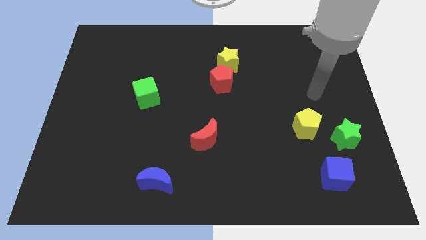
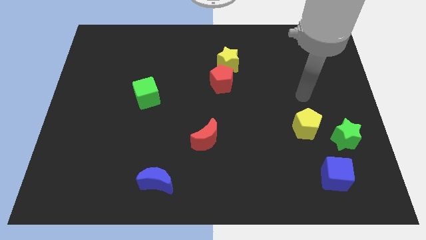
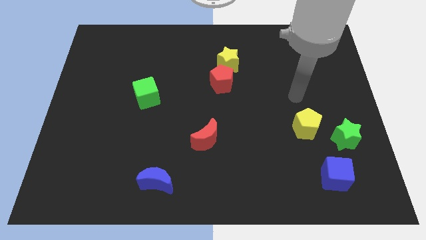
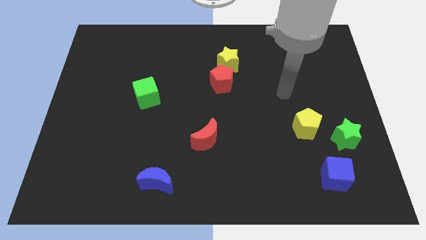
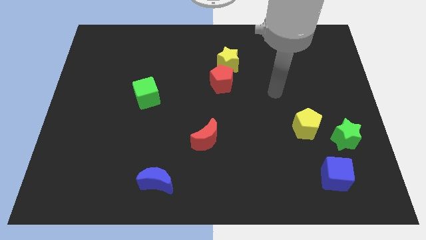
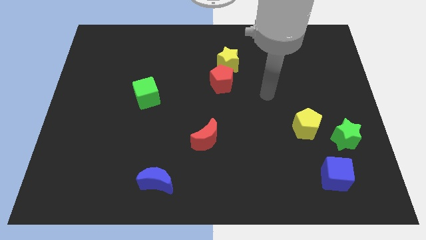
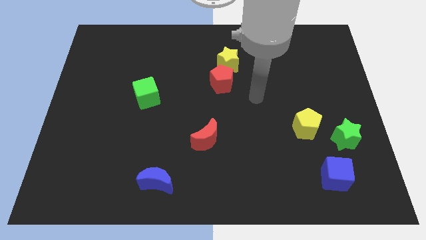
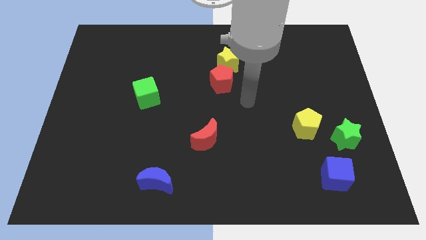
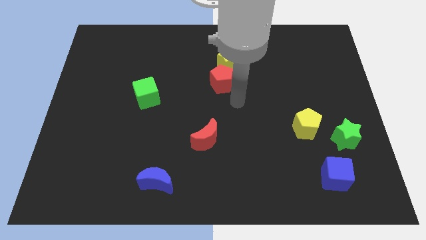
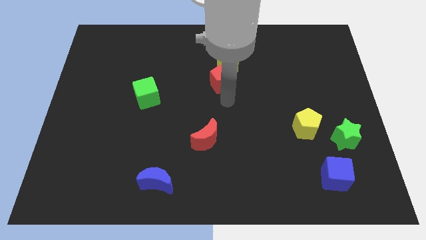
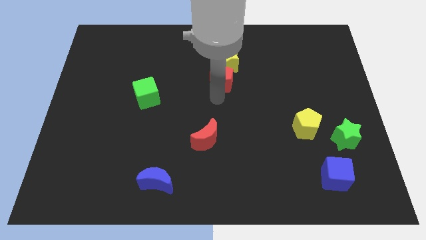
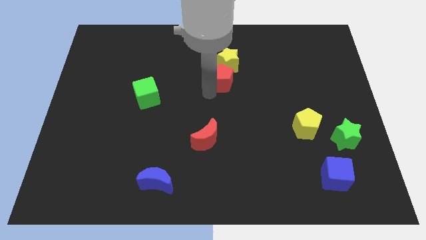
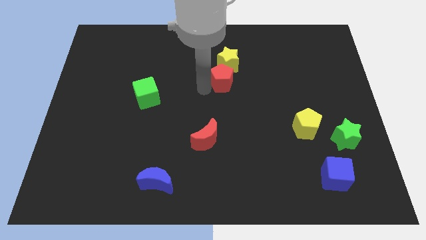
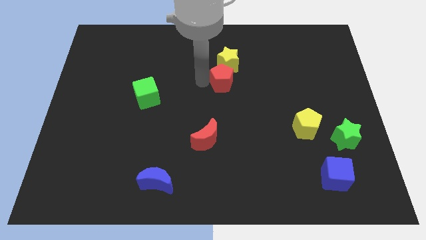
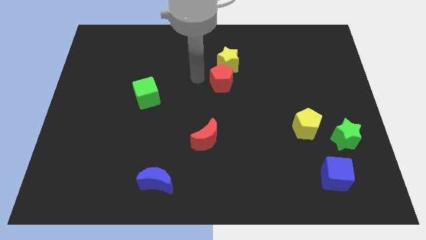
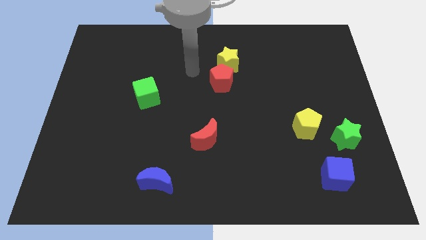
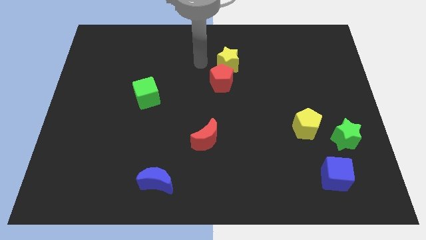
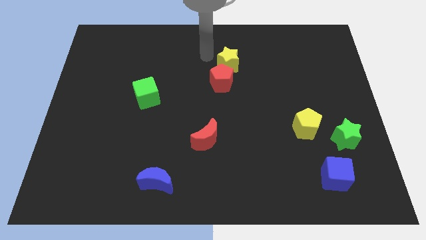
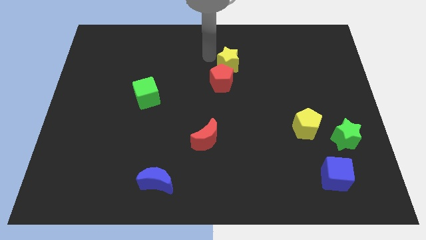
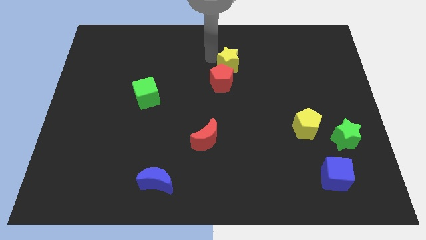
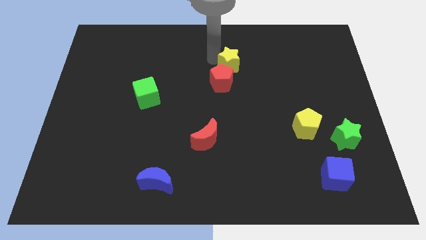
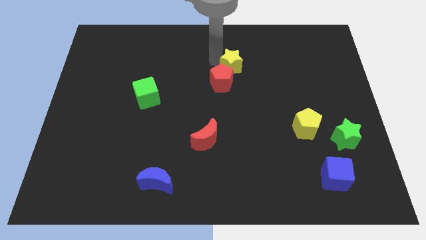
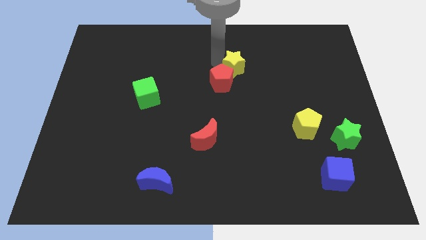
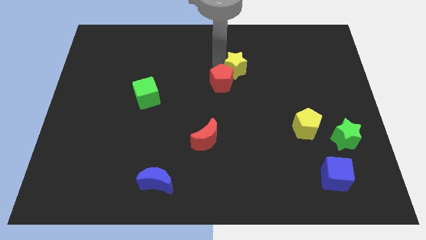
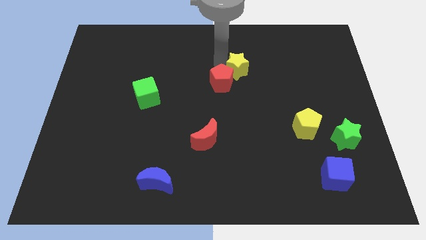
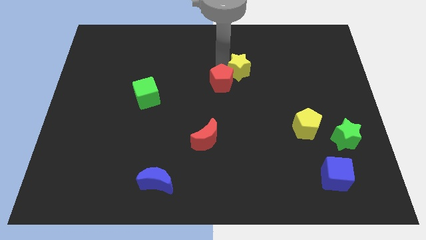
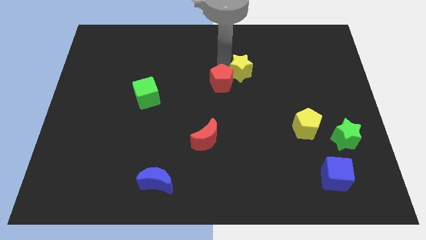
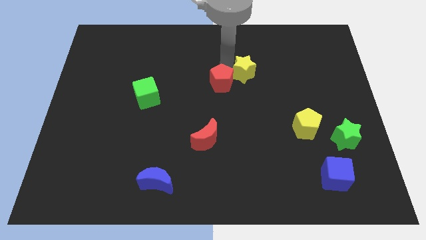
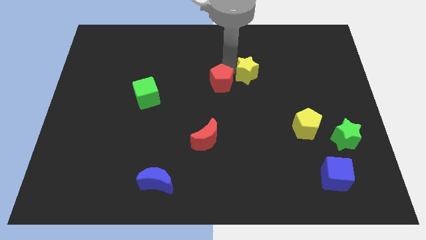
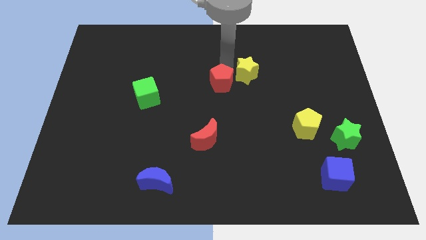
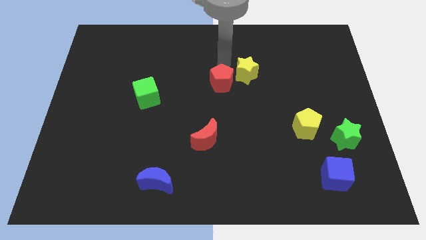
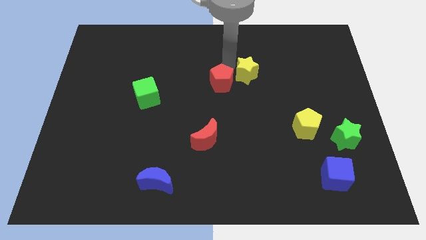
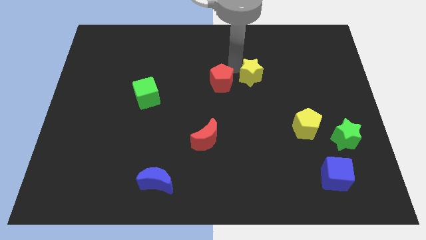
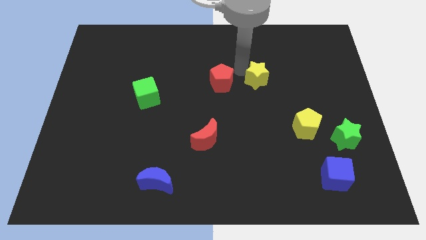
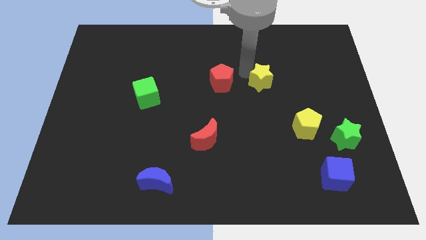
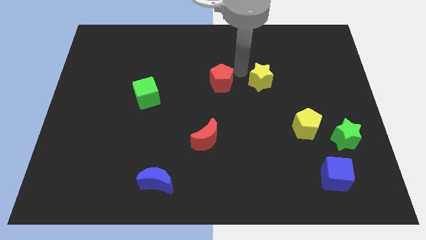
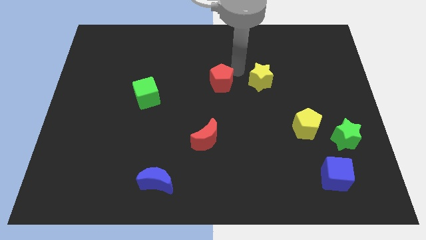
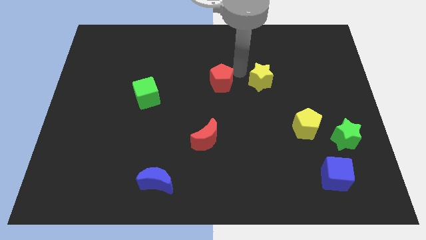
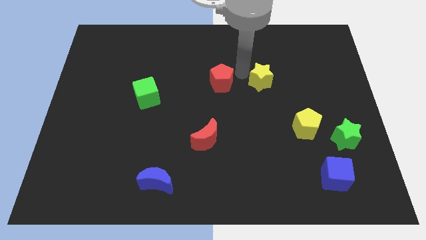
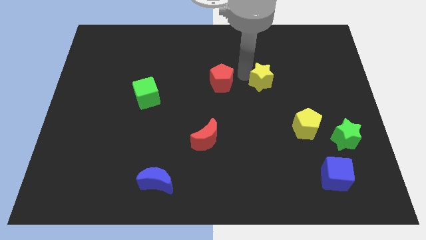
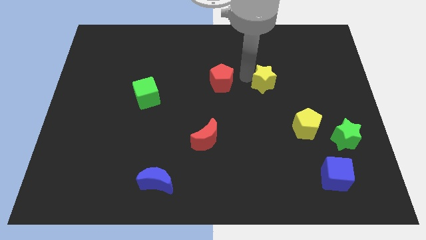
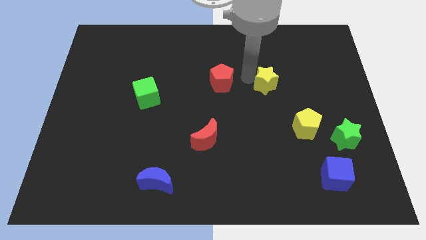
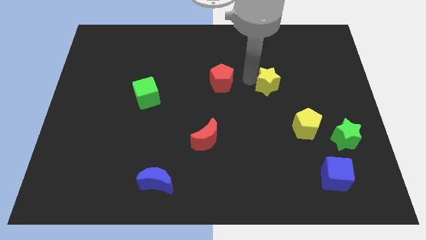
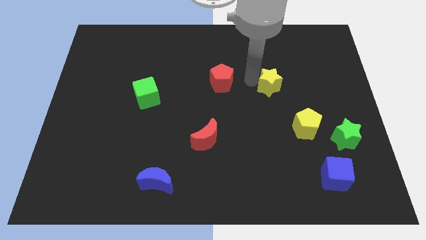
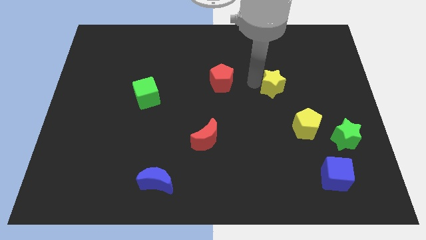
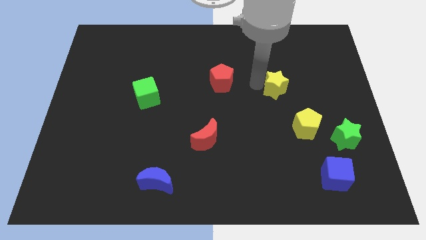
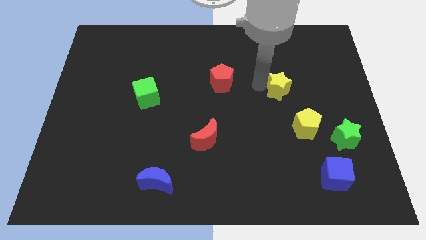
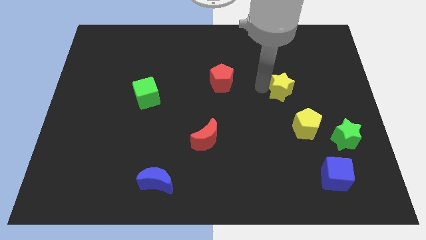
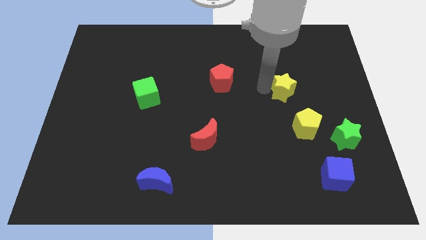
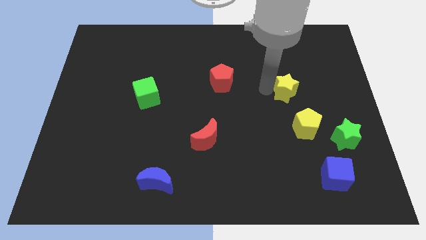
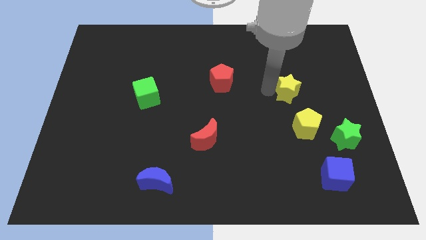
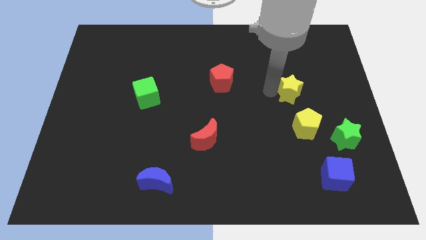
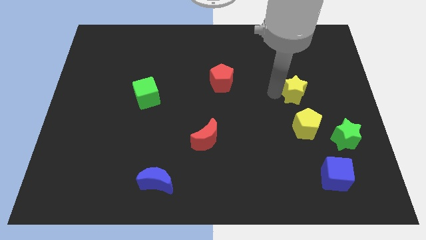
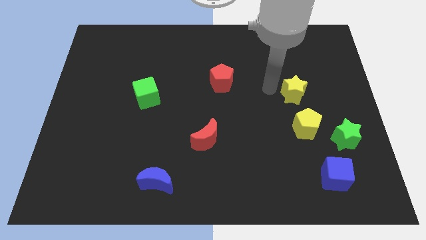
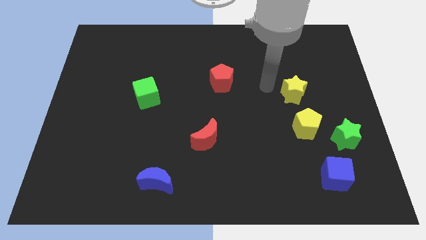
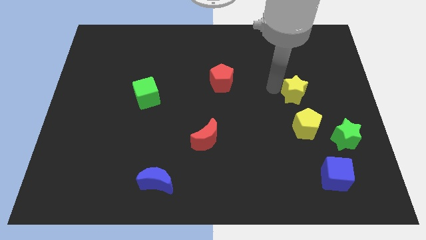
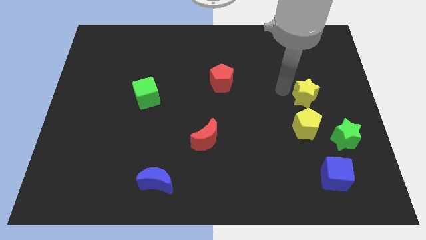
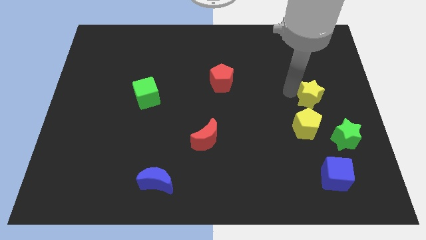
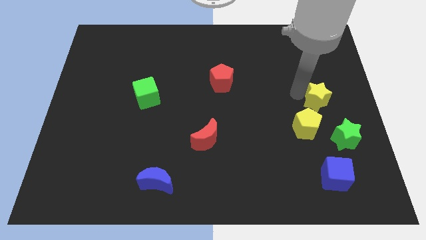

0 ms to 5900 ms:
push the yellow star to the top of the green star

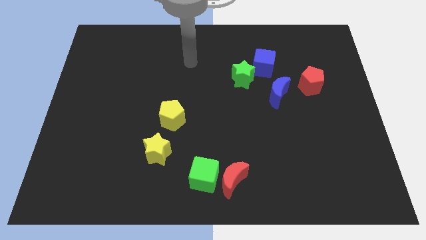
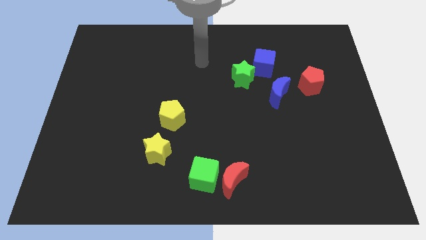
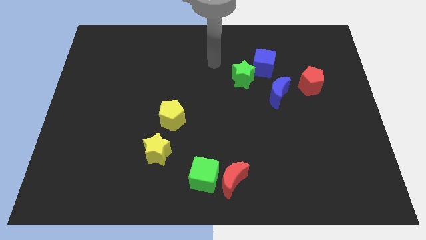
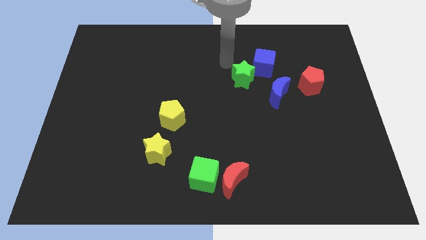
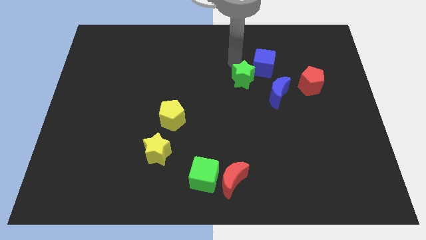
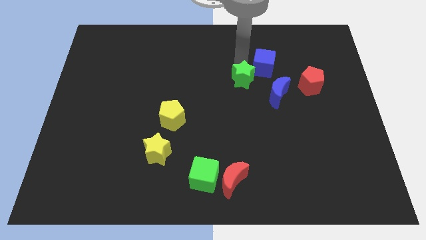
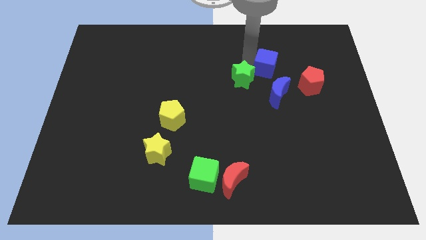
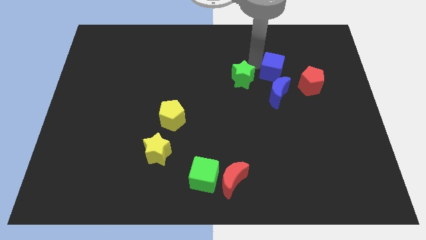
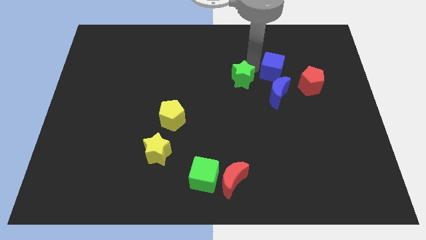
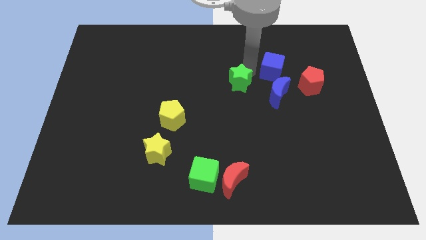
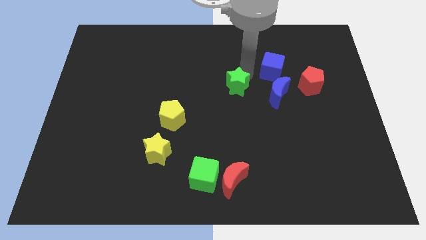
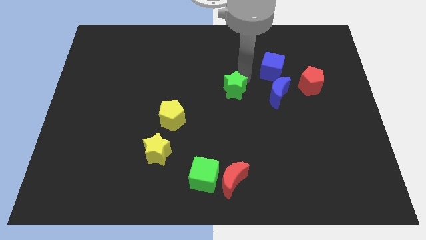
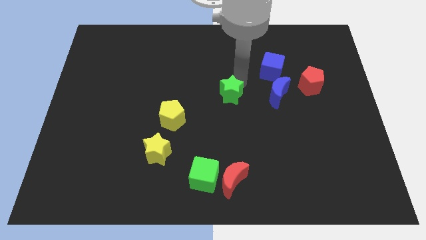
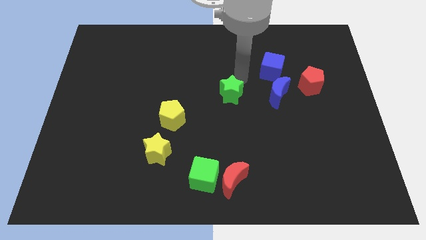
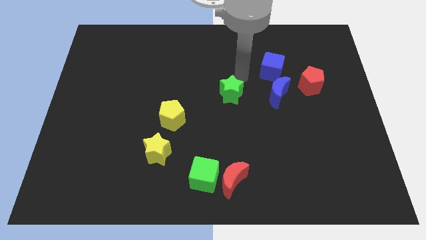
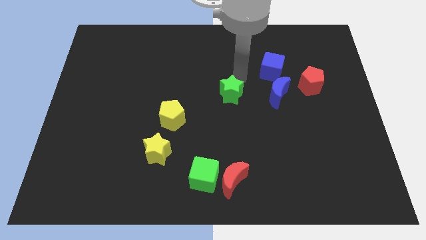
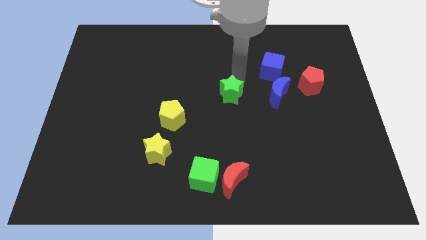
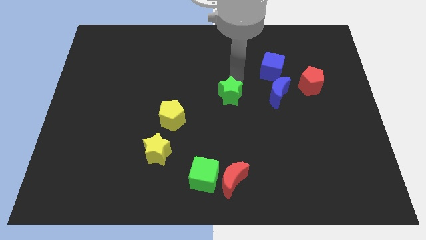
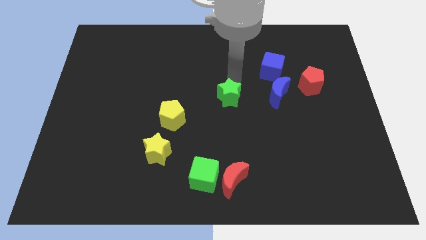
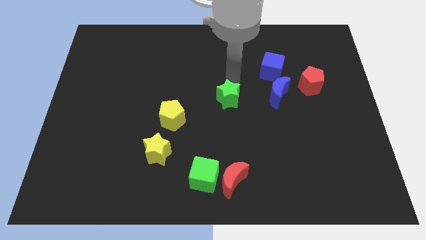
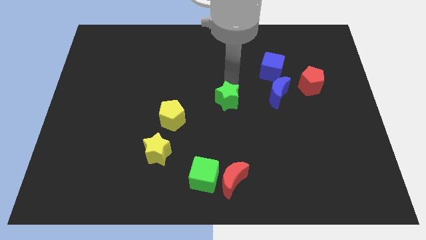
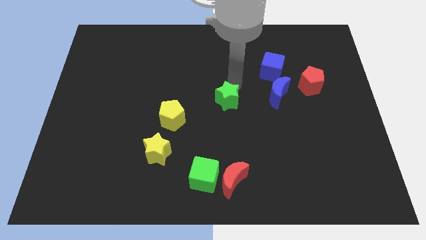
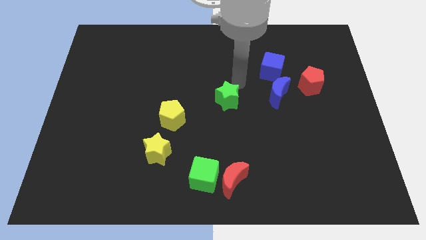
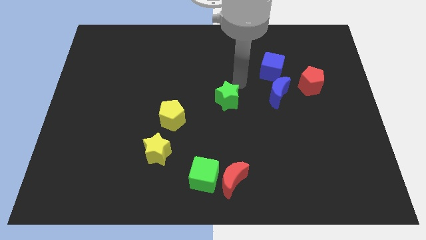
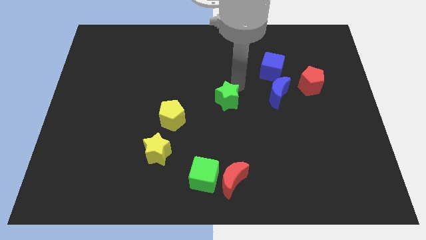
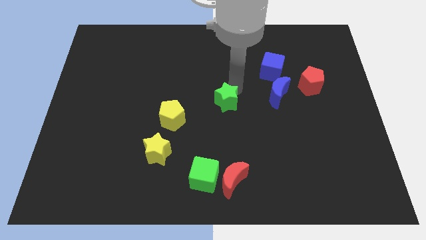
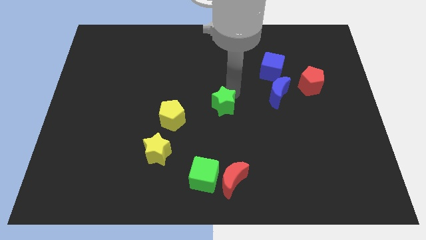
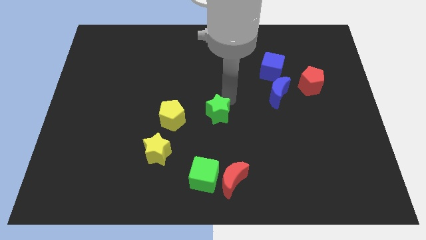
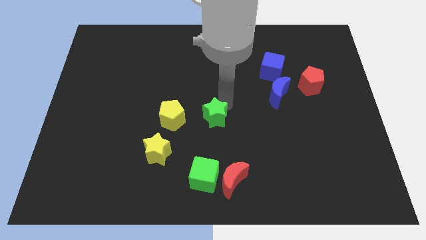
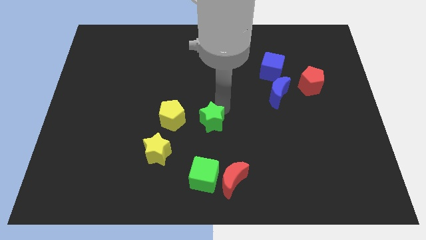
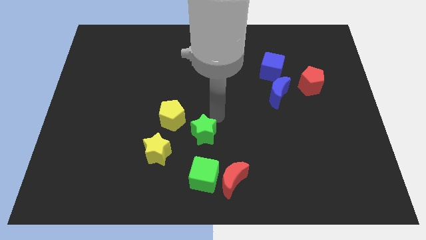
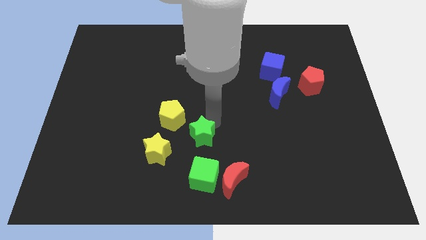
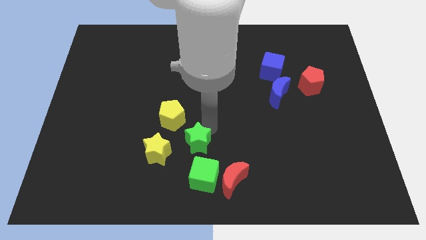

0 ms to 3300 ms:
slide the green star to the top left side of the green cube
